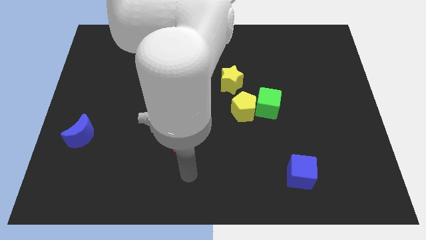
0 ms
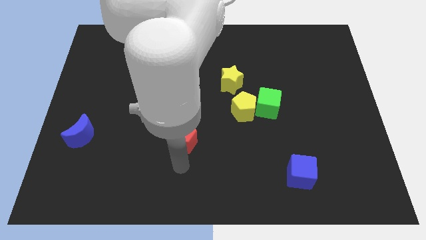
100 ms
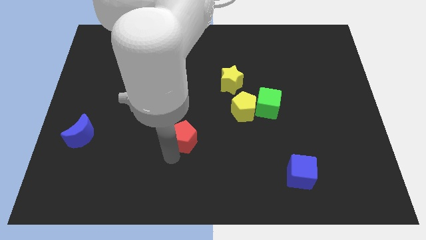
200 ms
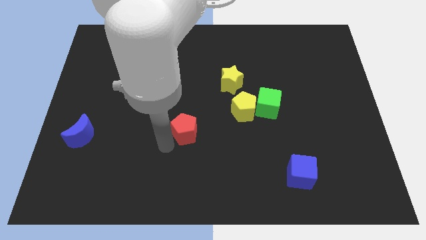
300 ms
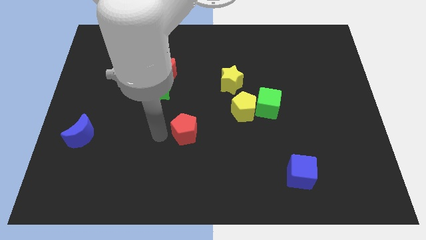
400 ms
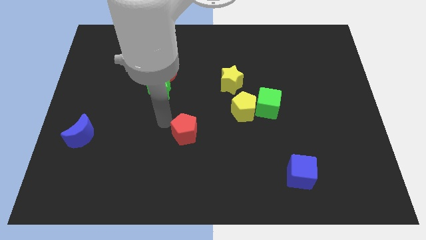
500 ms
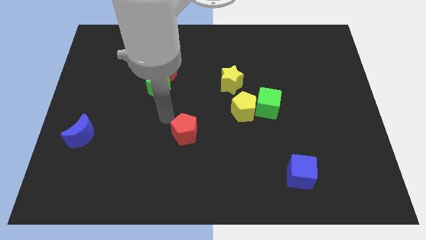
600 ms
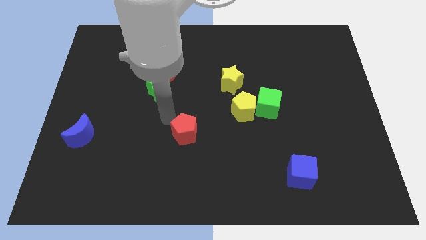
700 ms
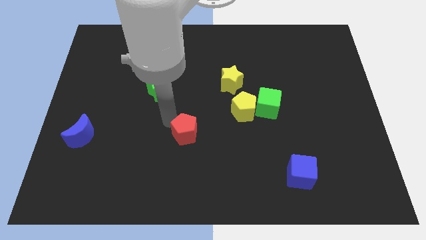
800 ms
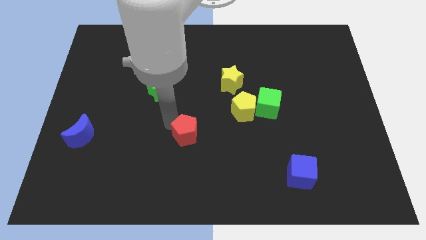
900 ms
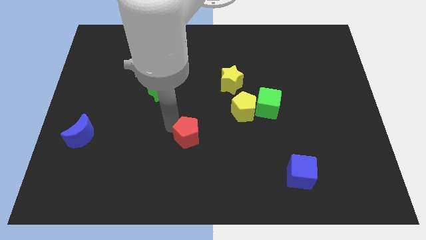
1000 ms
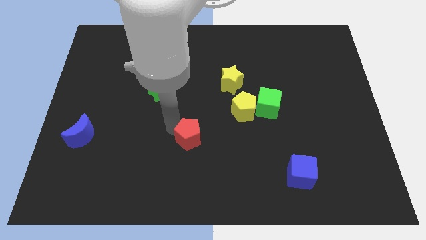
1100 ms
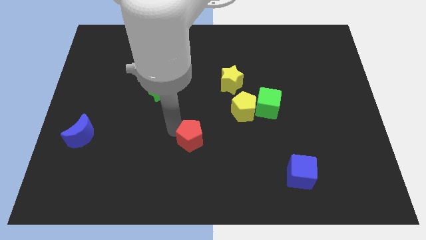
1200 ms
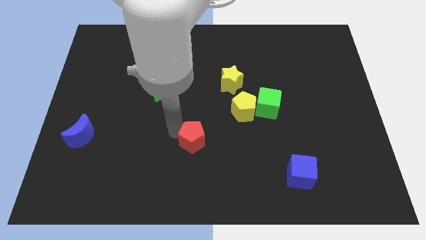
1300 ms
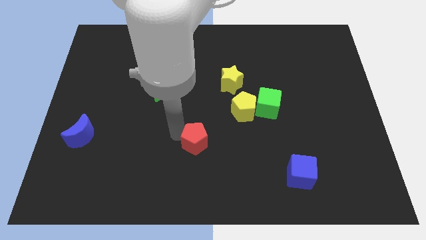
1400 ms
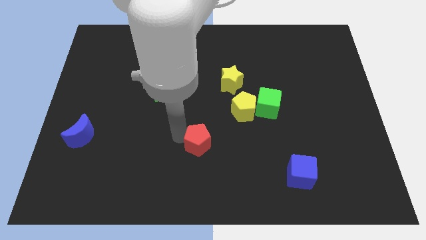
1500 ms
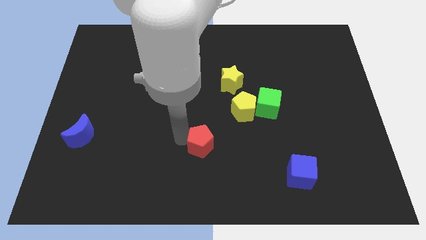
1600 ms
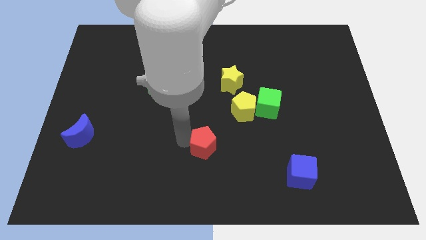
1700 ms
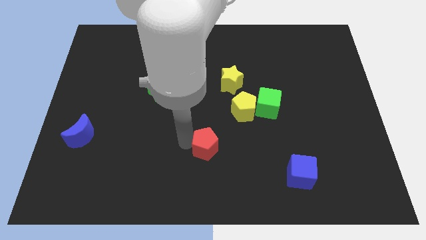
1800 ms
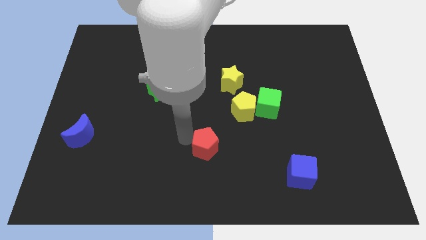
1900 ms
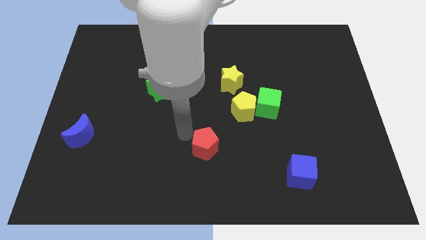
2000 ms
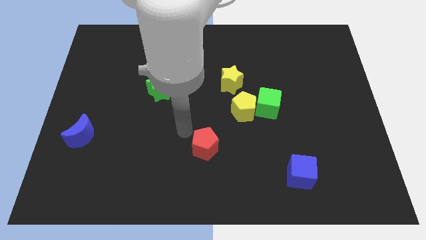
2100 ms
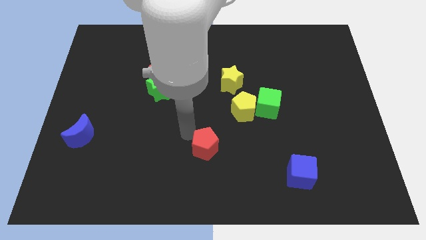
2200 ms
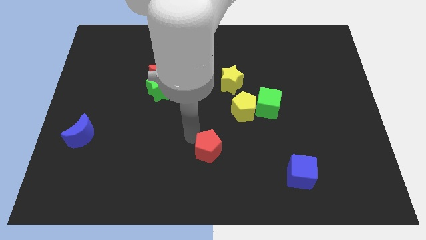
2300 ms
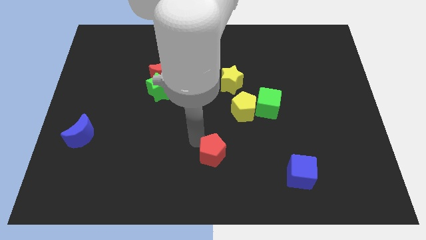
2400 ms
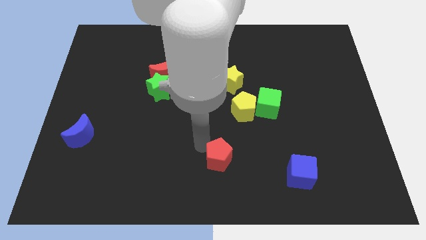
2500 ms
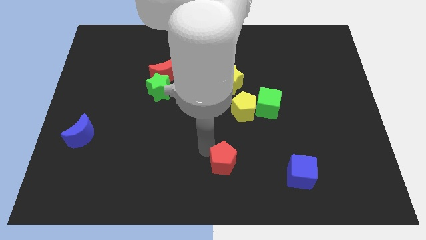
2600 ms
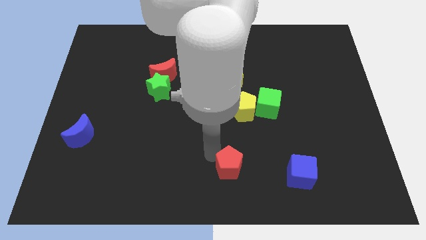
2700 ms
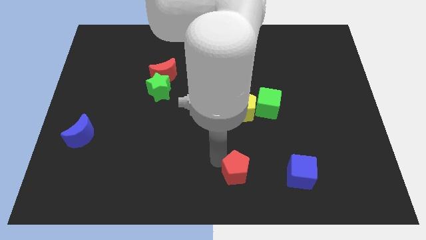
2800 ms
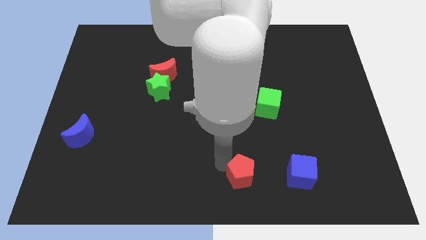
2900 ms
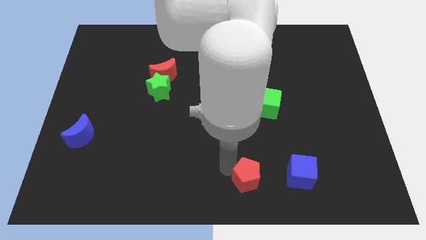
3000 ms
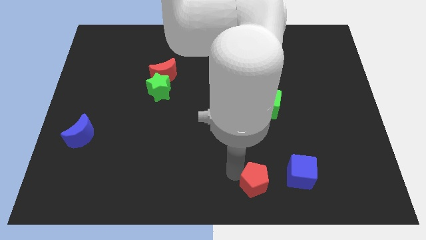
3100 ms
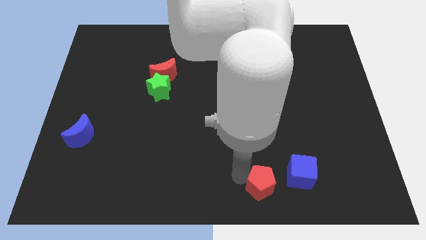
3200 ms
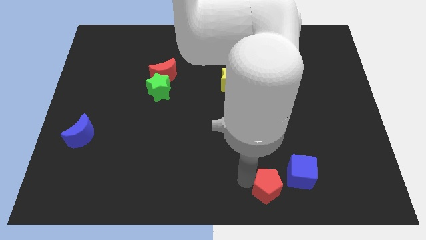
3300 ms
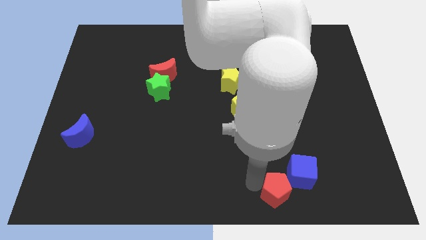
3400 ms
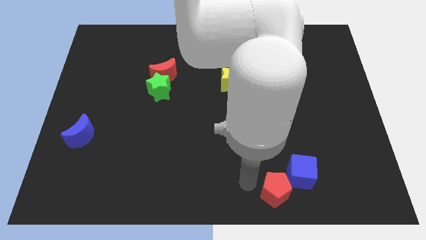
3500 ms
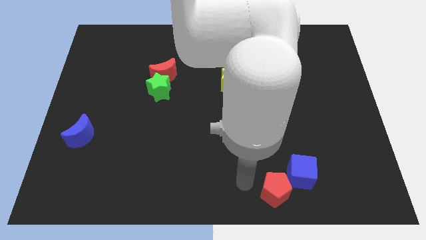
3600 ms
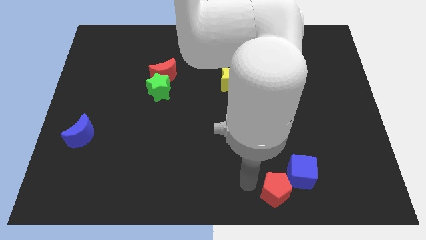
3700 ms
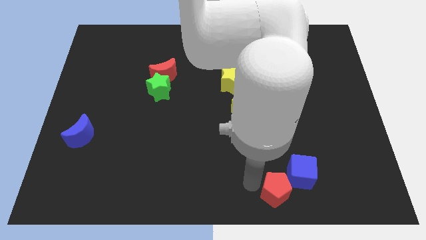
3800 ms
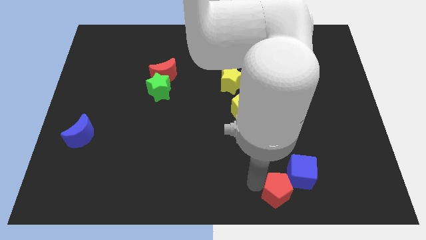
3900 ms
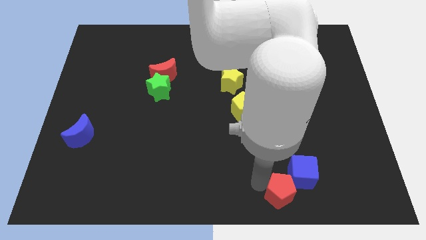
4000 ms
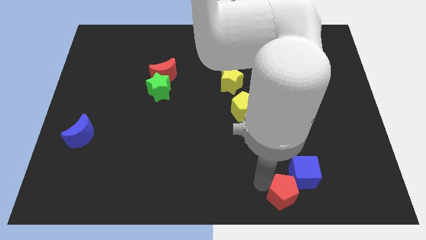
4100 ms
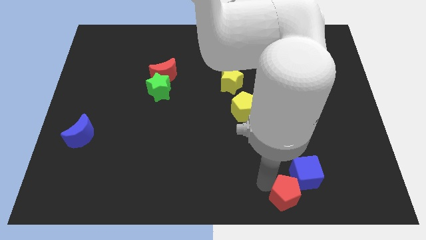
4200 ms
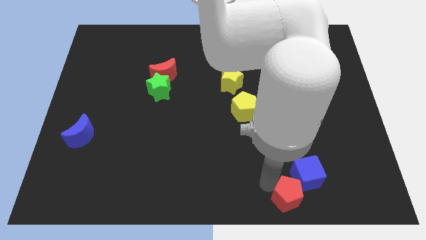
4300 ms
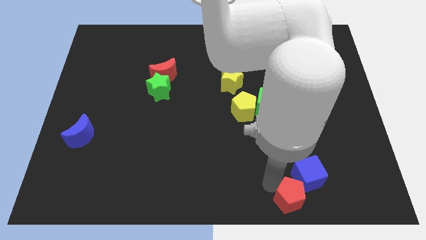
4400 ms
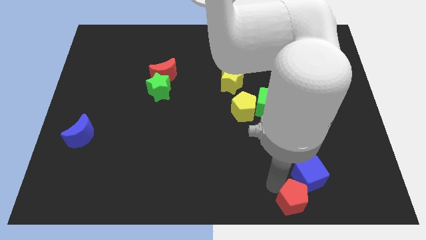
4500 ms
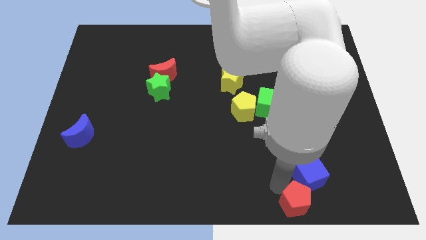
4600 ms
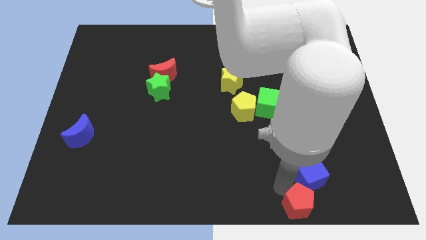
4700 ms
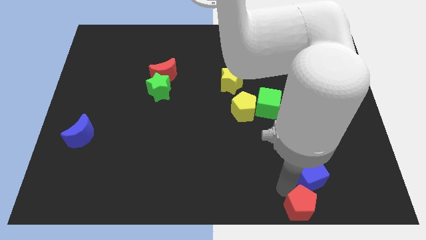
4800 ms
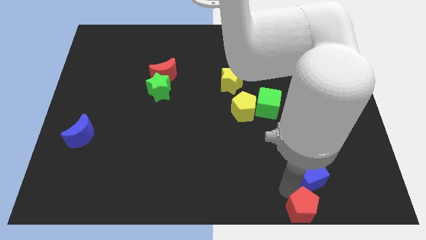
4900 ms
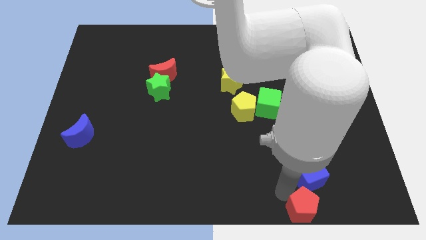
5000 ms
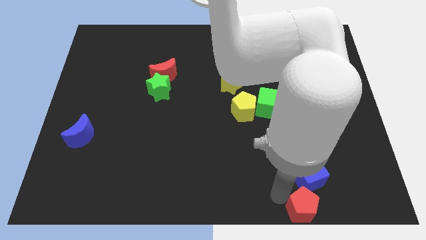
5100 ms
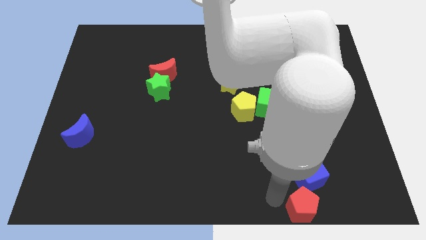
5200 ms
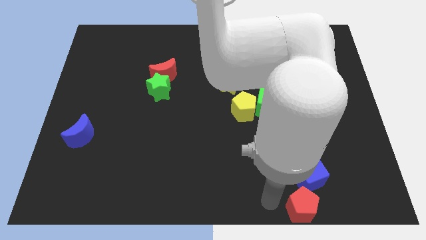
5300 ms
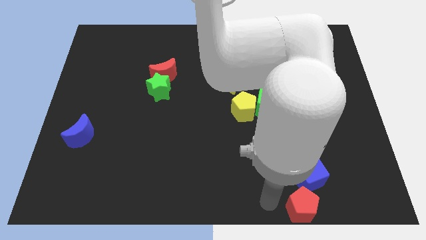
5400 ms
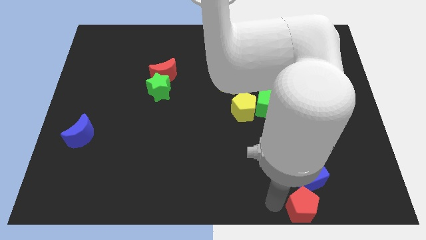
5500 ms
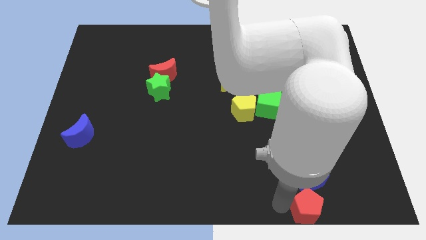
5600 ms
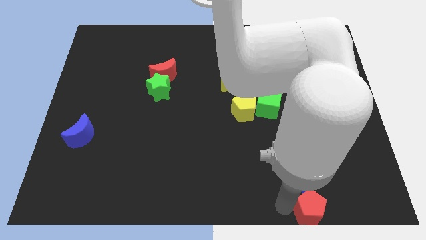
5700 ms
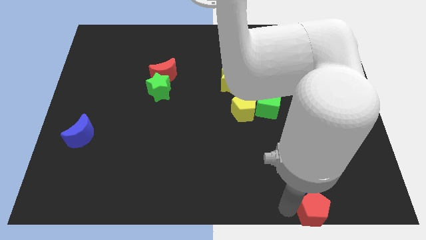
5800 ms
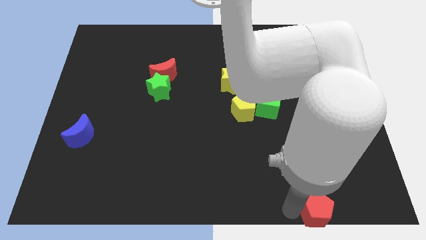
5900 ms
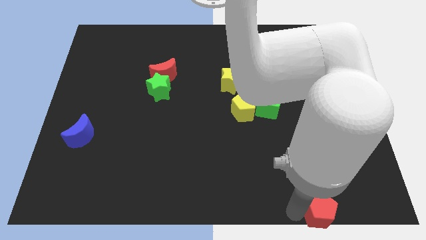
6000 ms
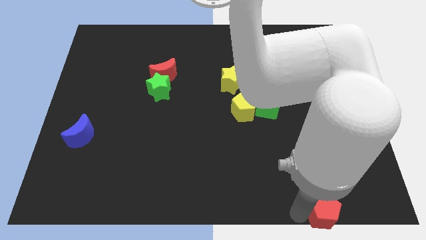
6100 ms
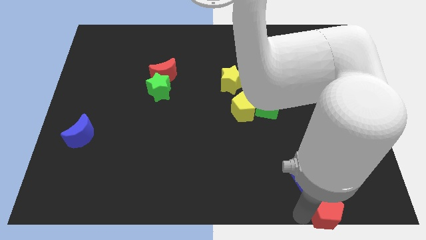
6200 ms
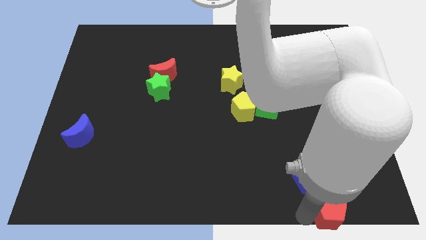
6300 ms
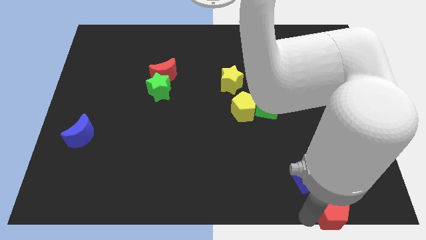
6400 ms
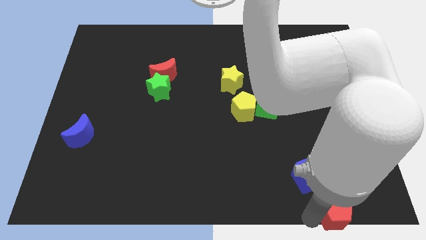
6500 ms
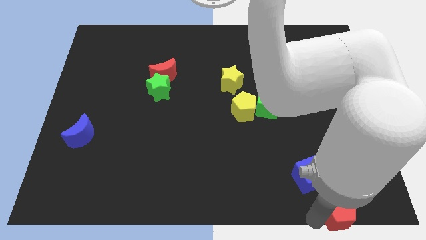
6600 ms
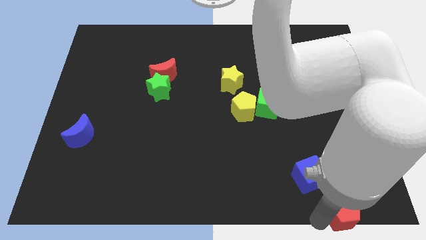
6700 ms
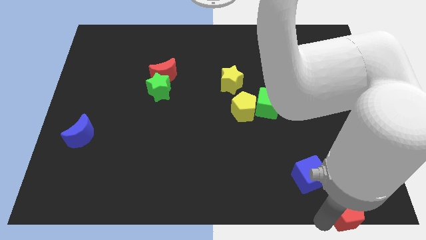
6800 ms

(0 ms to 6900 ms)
push the red pentagon to the lower right corner
